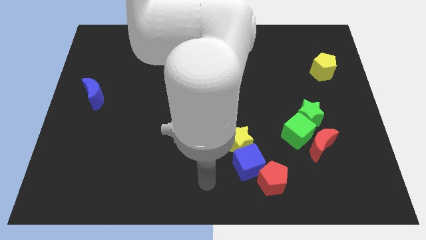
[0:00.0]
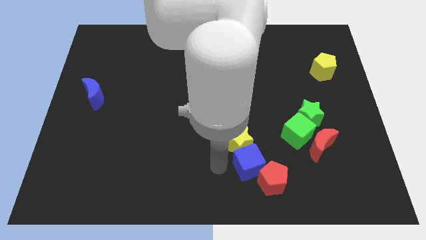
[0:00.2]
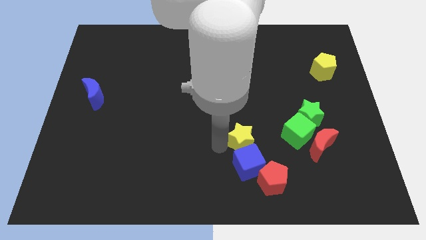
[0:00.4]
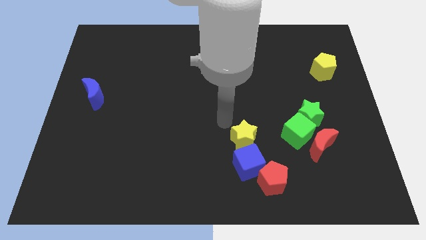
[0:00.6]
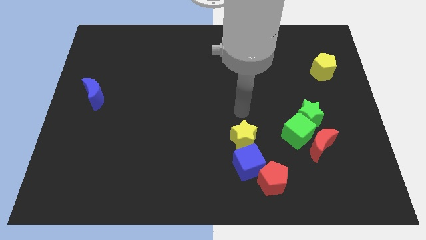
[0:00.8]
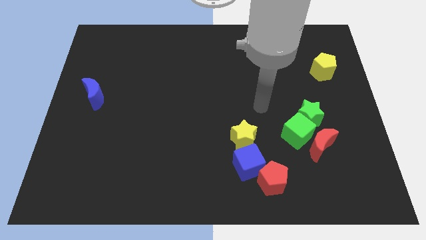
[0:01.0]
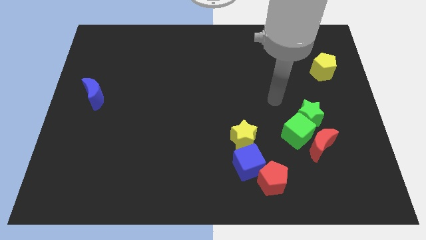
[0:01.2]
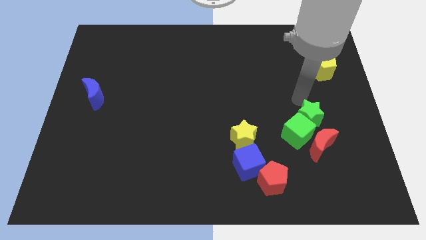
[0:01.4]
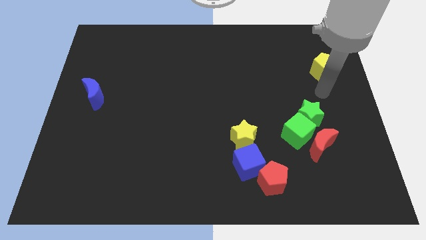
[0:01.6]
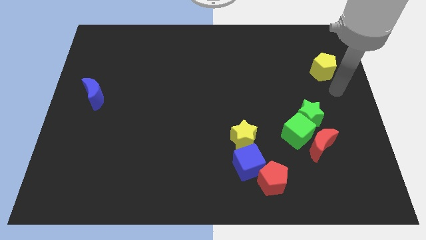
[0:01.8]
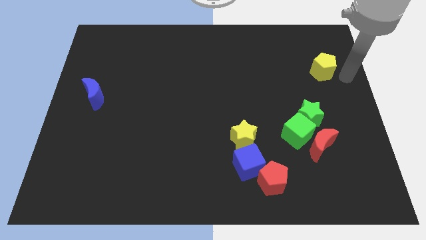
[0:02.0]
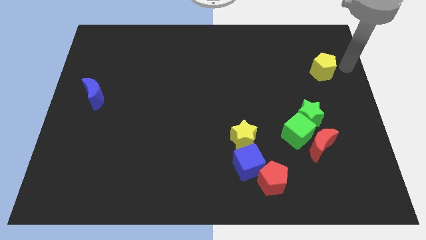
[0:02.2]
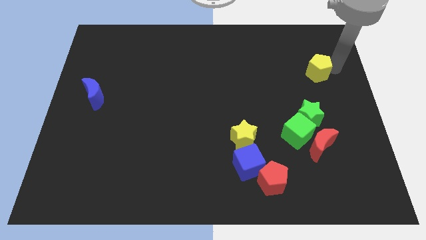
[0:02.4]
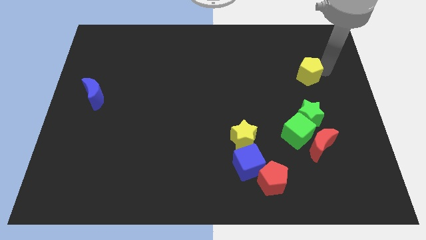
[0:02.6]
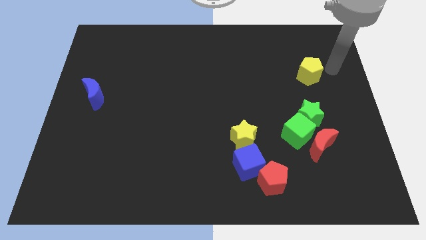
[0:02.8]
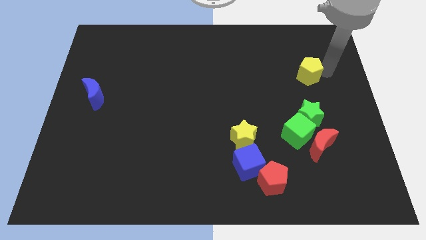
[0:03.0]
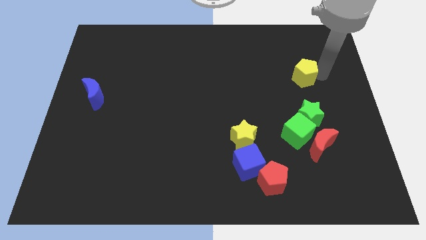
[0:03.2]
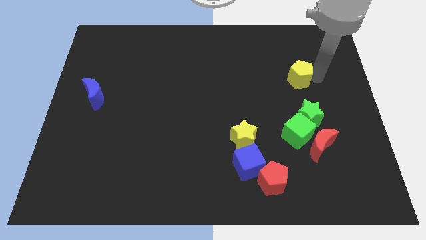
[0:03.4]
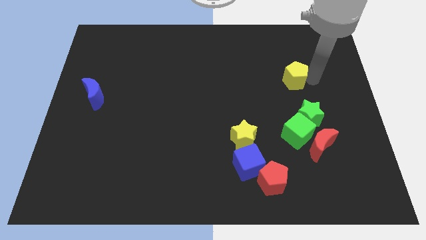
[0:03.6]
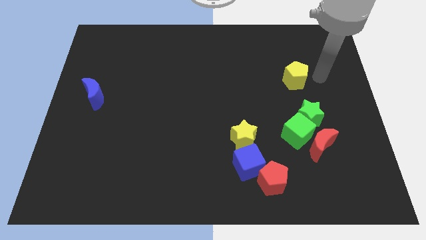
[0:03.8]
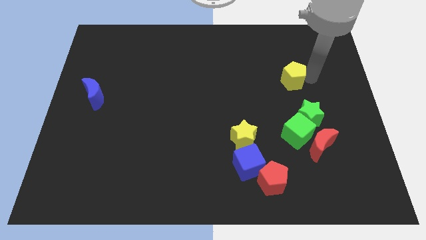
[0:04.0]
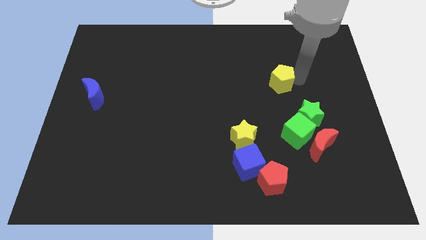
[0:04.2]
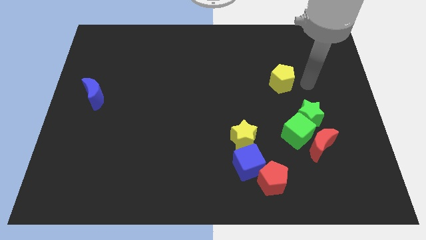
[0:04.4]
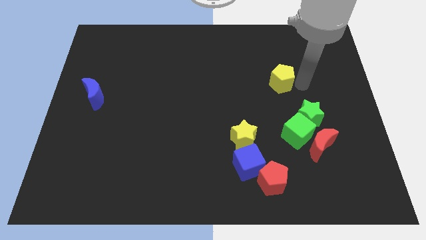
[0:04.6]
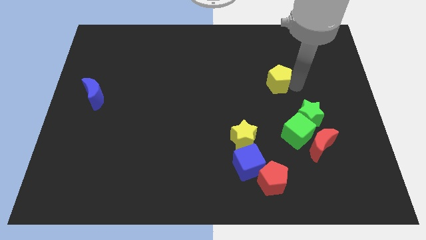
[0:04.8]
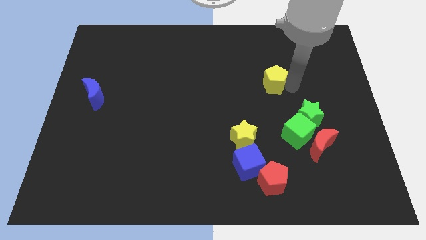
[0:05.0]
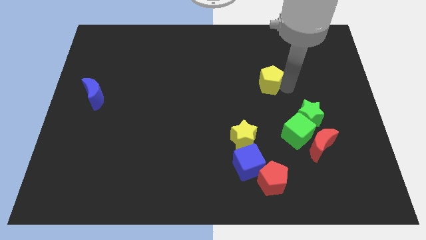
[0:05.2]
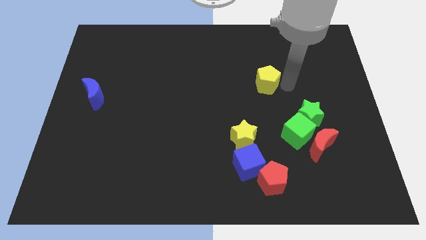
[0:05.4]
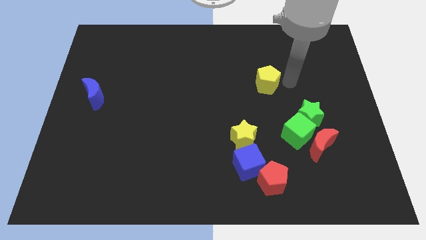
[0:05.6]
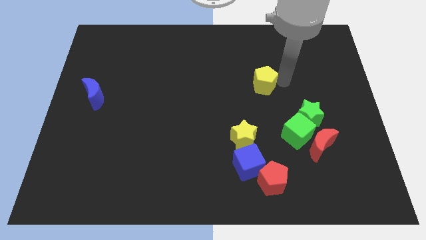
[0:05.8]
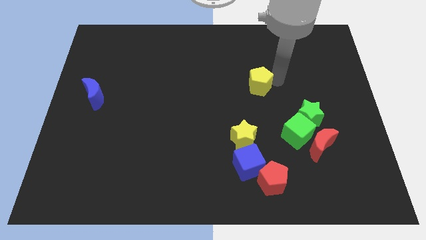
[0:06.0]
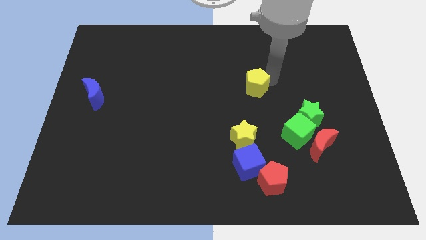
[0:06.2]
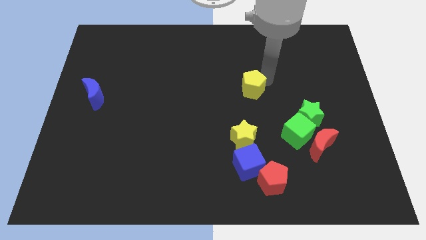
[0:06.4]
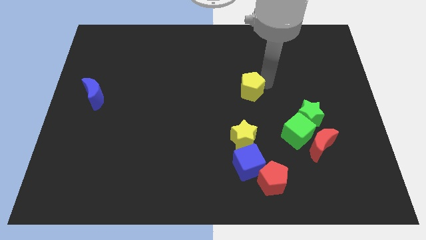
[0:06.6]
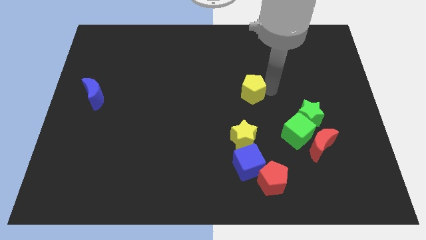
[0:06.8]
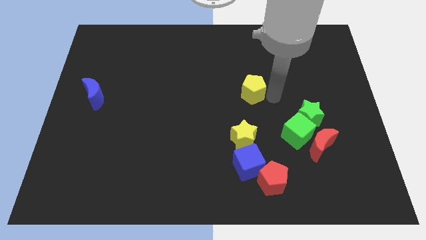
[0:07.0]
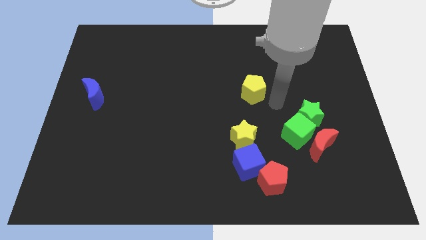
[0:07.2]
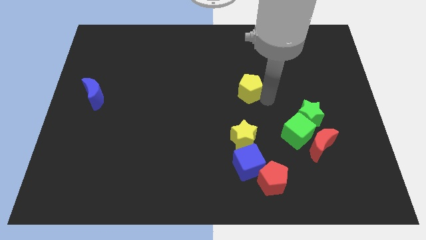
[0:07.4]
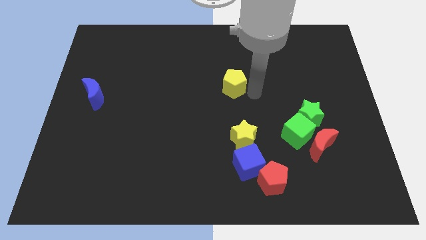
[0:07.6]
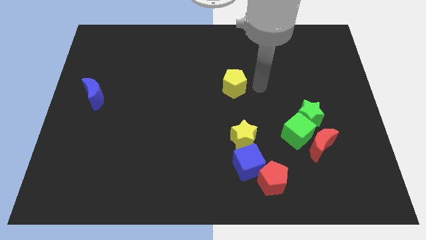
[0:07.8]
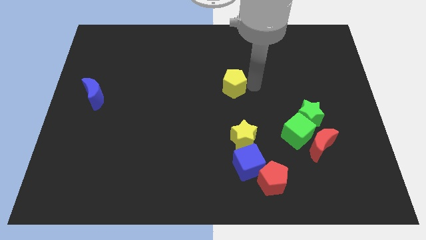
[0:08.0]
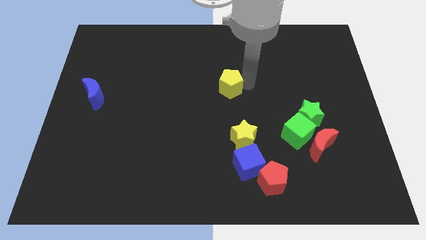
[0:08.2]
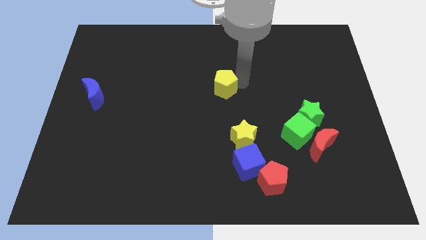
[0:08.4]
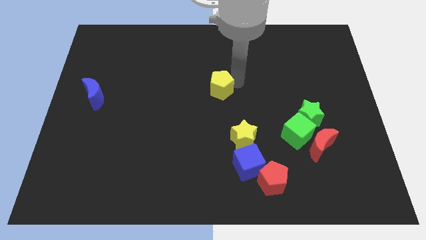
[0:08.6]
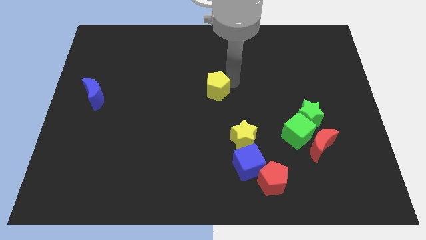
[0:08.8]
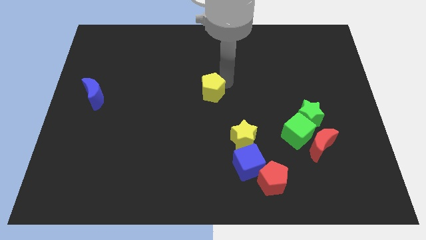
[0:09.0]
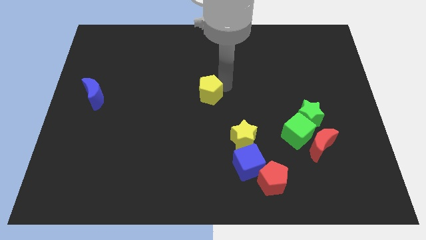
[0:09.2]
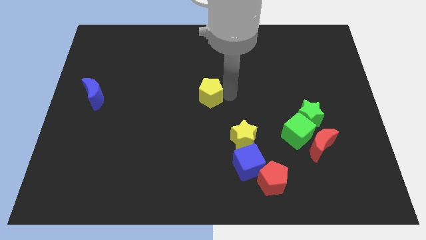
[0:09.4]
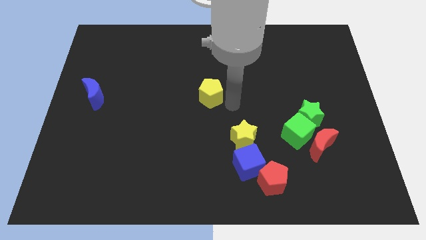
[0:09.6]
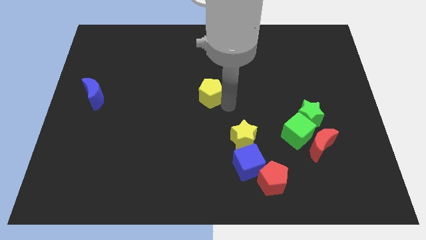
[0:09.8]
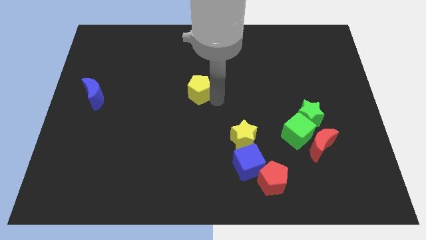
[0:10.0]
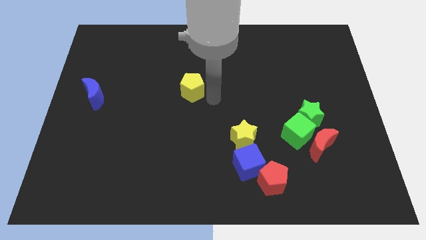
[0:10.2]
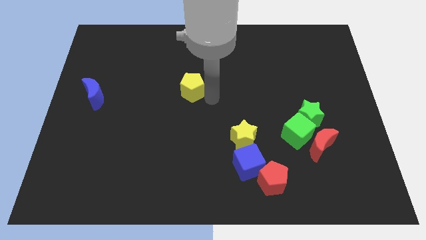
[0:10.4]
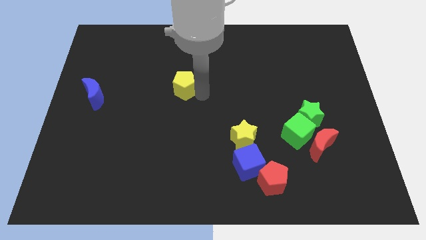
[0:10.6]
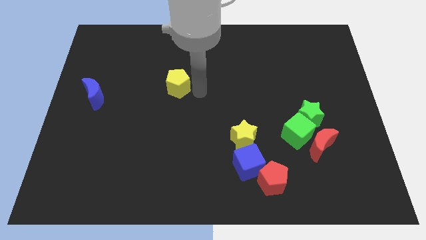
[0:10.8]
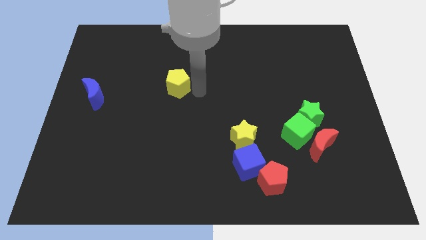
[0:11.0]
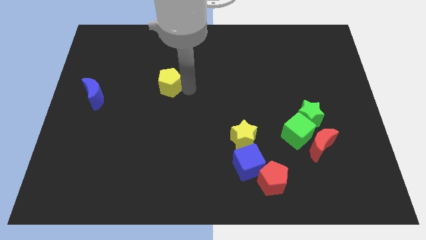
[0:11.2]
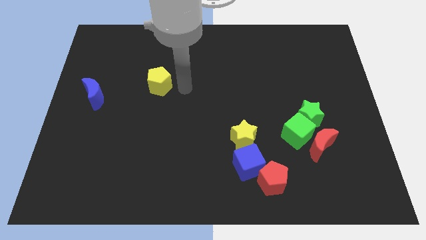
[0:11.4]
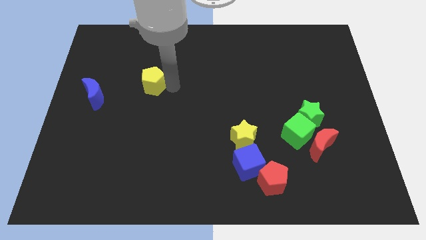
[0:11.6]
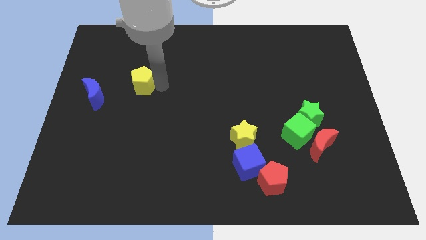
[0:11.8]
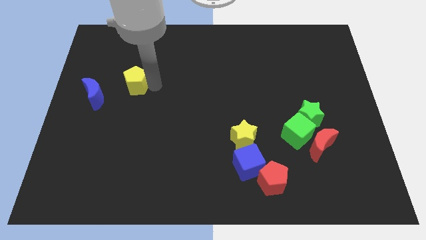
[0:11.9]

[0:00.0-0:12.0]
slide the yellow pentagon diagonally up and to the right of the blue moon
